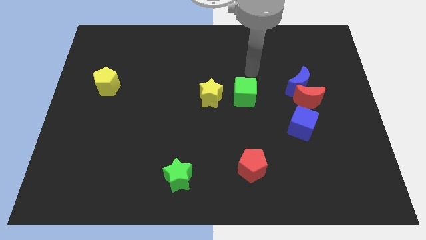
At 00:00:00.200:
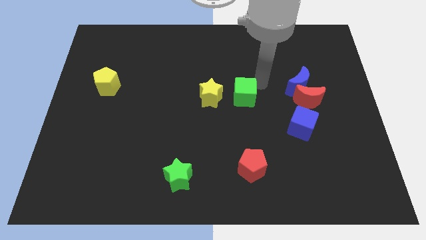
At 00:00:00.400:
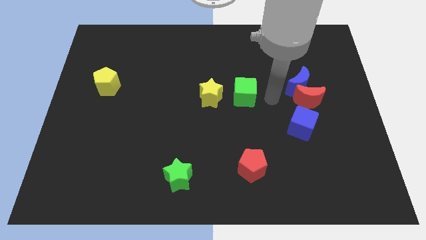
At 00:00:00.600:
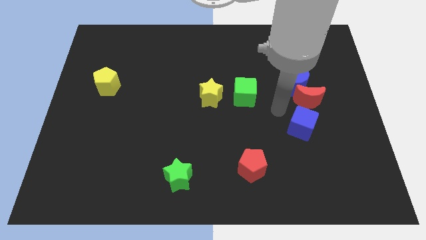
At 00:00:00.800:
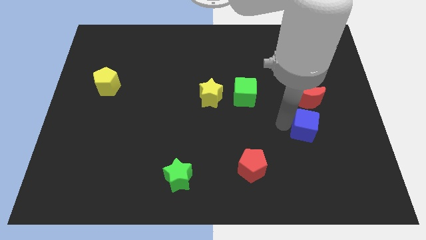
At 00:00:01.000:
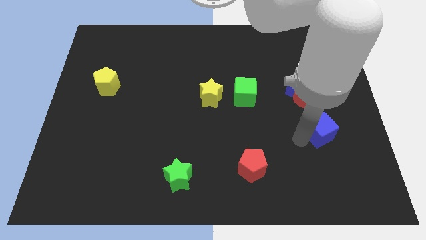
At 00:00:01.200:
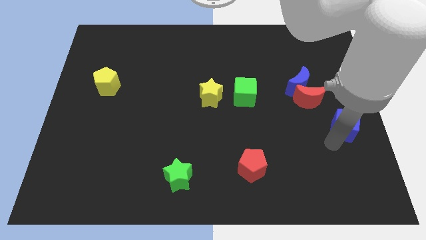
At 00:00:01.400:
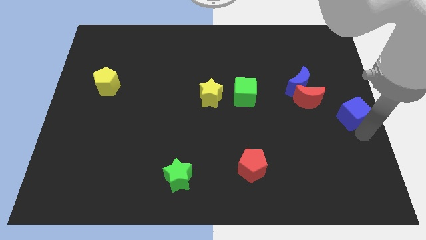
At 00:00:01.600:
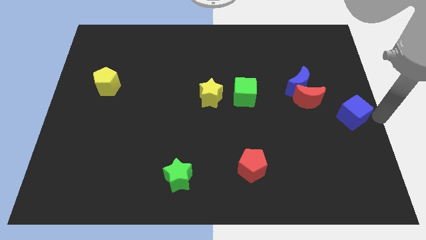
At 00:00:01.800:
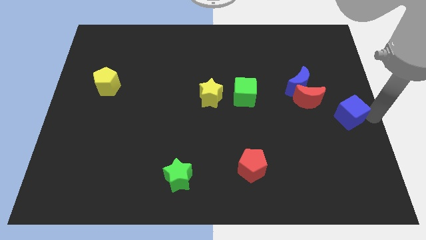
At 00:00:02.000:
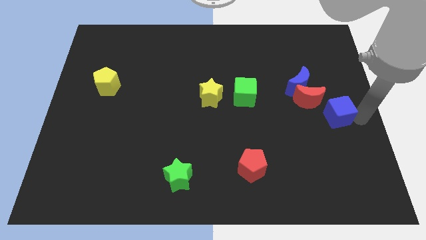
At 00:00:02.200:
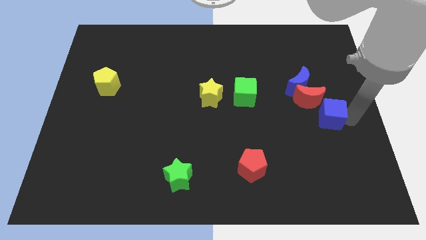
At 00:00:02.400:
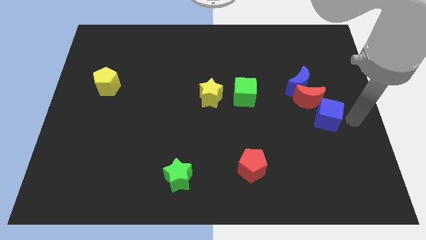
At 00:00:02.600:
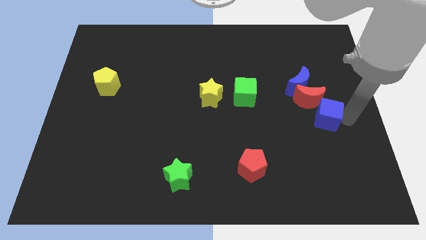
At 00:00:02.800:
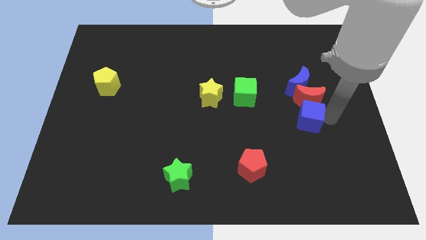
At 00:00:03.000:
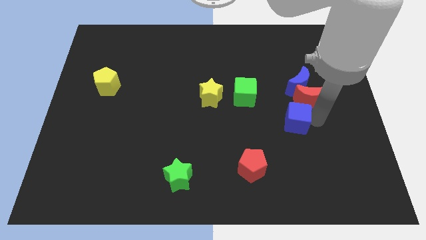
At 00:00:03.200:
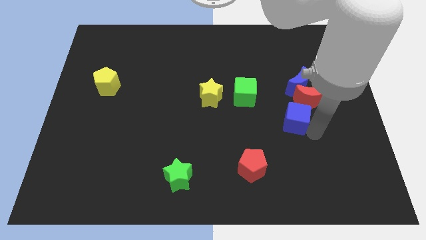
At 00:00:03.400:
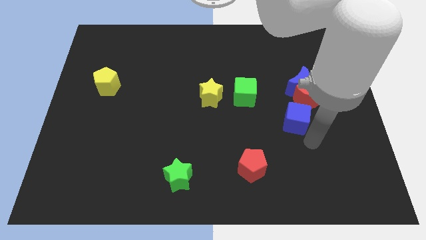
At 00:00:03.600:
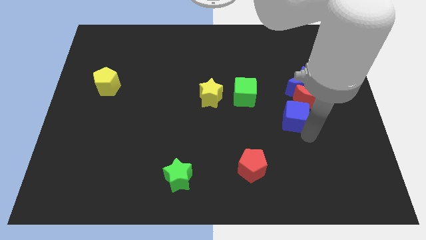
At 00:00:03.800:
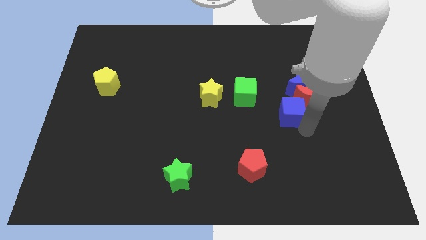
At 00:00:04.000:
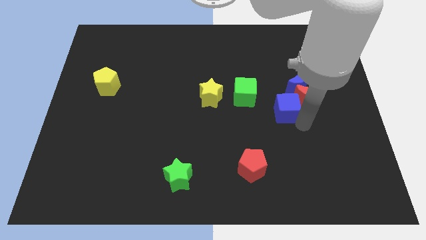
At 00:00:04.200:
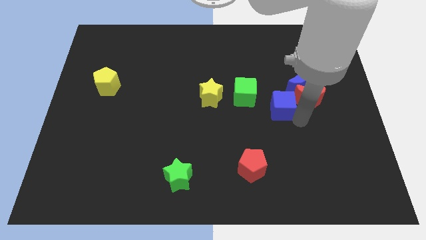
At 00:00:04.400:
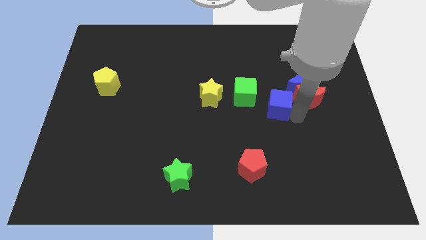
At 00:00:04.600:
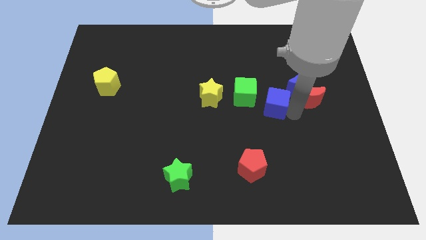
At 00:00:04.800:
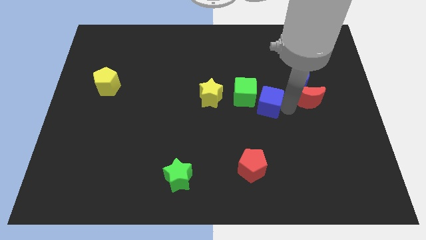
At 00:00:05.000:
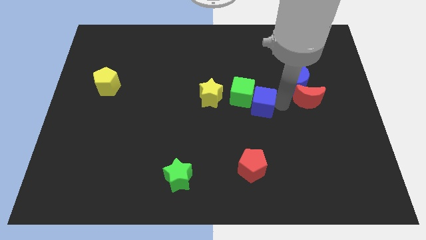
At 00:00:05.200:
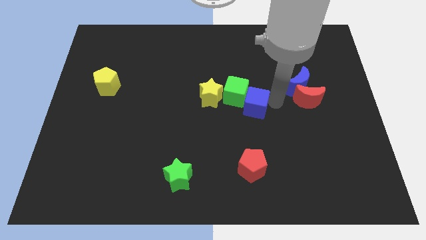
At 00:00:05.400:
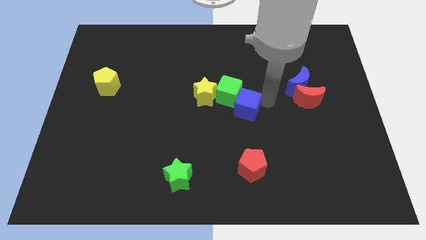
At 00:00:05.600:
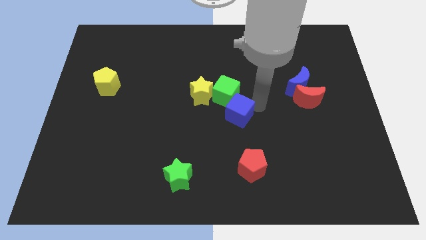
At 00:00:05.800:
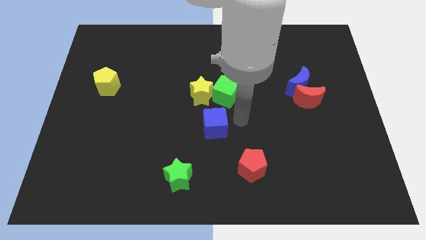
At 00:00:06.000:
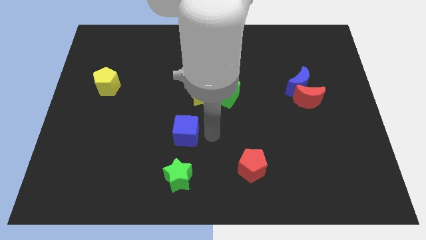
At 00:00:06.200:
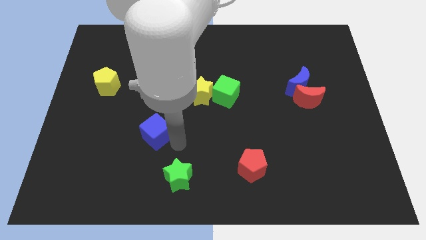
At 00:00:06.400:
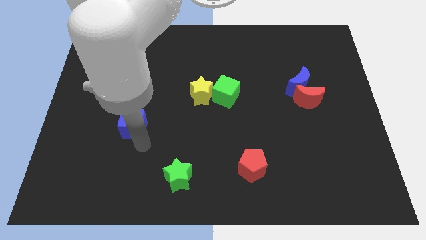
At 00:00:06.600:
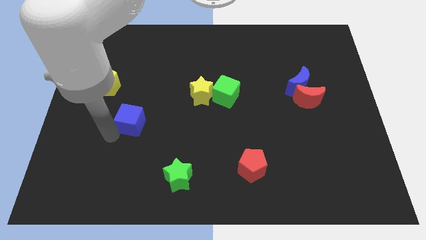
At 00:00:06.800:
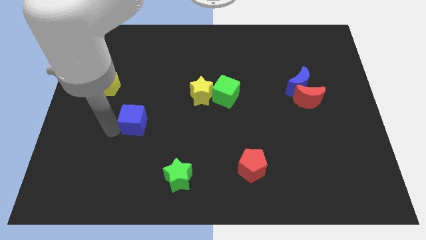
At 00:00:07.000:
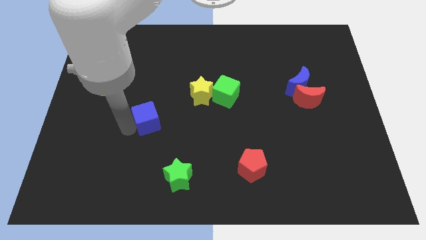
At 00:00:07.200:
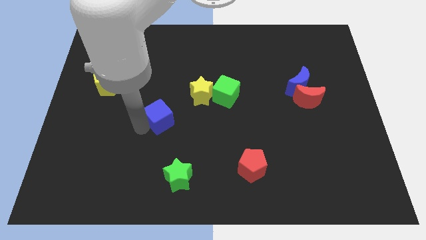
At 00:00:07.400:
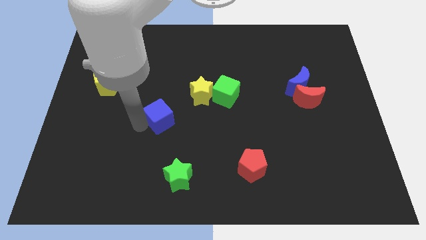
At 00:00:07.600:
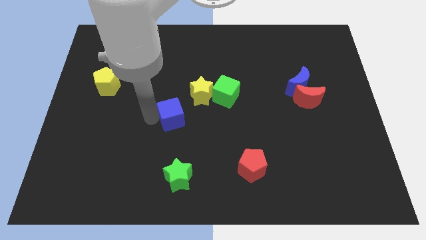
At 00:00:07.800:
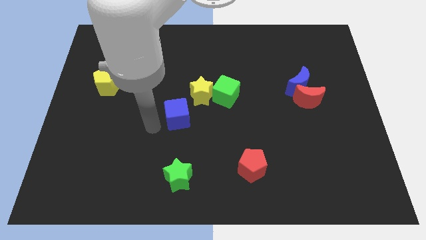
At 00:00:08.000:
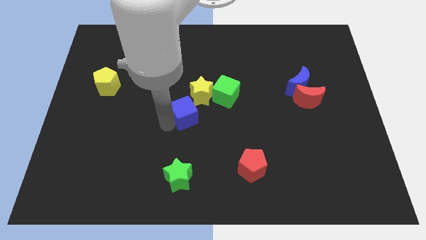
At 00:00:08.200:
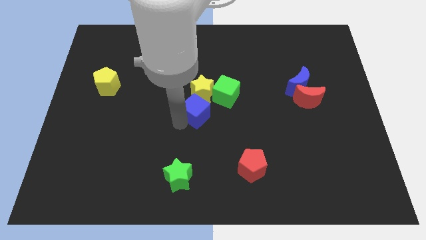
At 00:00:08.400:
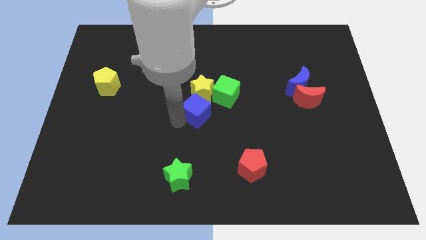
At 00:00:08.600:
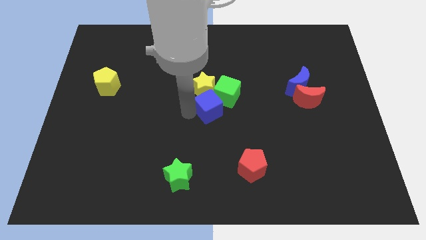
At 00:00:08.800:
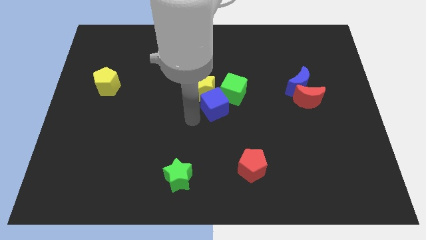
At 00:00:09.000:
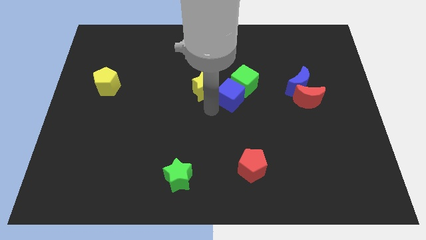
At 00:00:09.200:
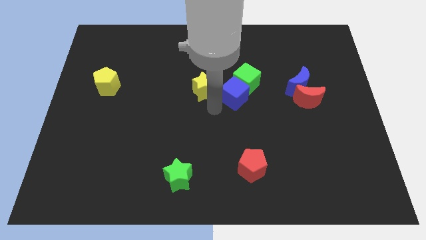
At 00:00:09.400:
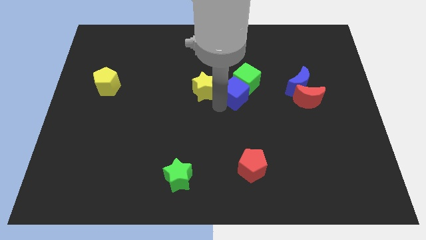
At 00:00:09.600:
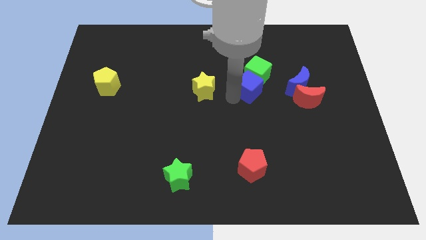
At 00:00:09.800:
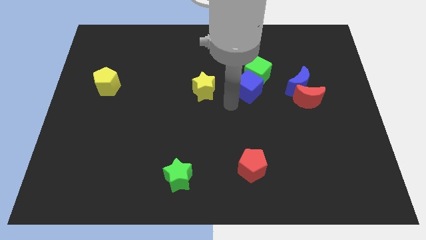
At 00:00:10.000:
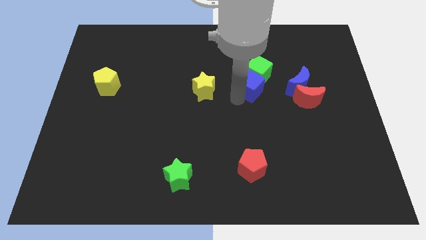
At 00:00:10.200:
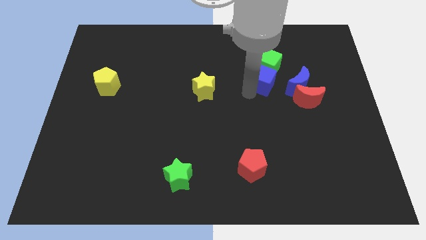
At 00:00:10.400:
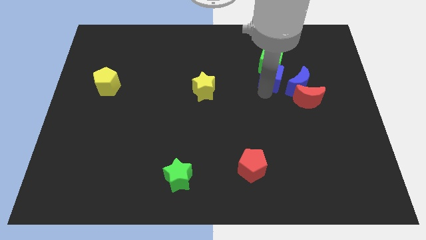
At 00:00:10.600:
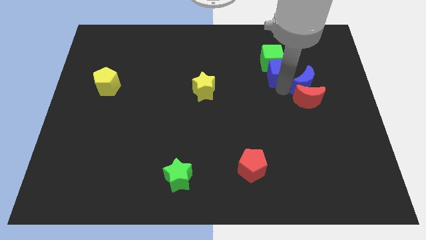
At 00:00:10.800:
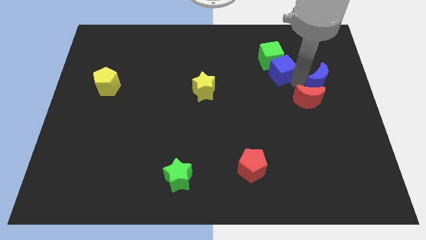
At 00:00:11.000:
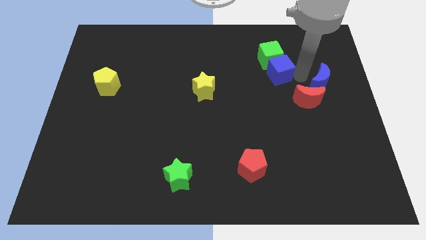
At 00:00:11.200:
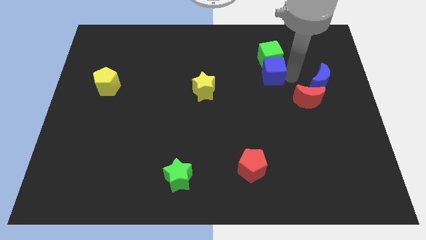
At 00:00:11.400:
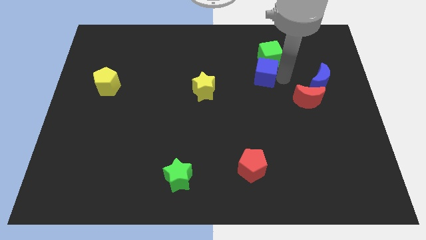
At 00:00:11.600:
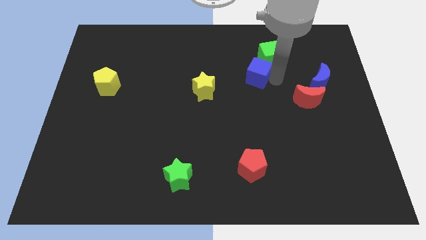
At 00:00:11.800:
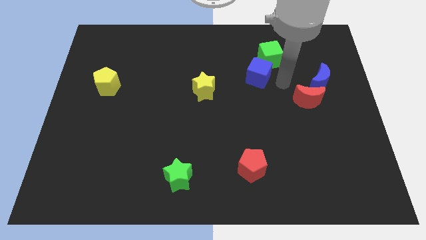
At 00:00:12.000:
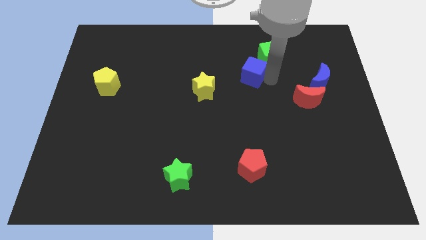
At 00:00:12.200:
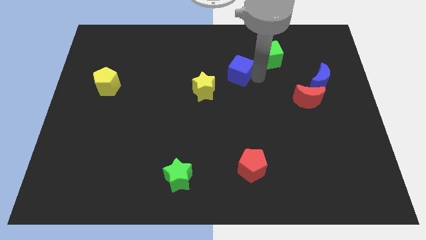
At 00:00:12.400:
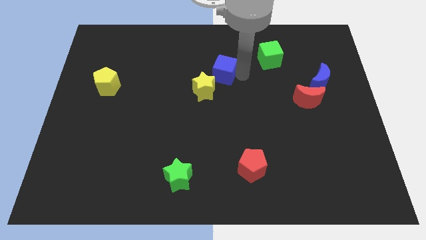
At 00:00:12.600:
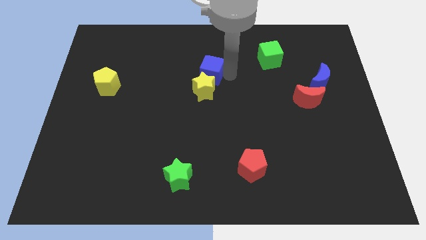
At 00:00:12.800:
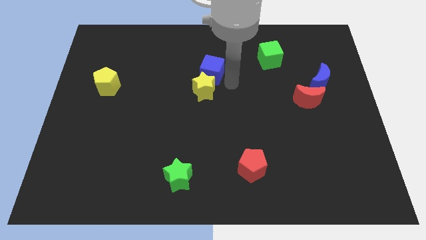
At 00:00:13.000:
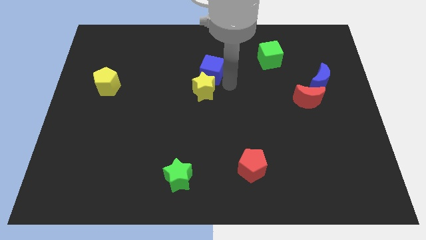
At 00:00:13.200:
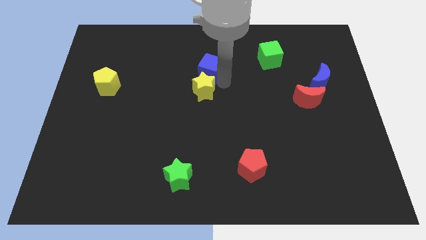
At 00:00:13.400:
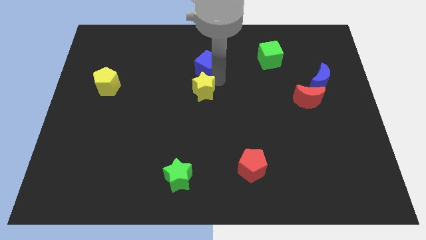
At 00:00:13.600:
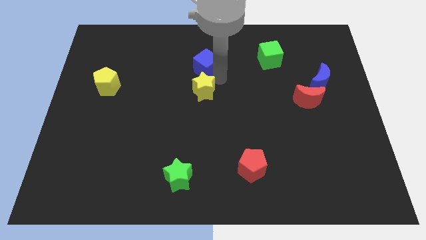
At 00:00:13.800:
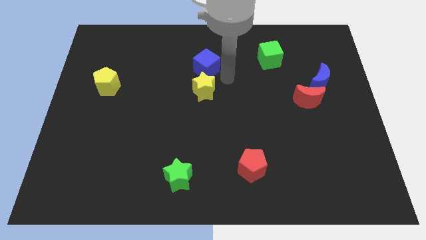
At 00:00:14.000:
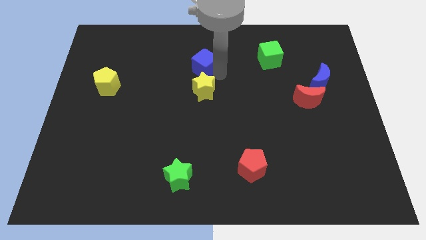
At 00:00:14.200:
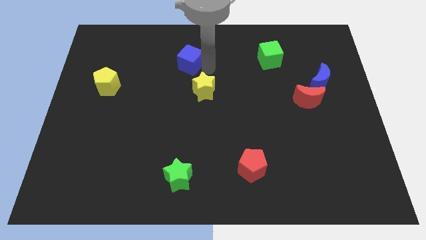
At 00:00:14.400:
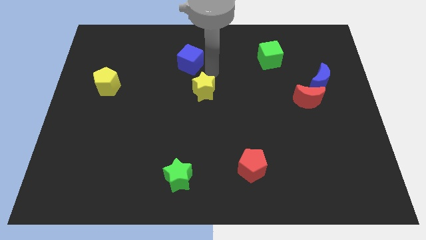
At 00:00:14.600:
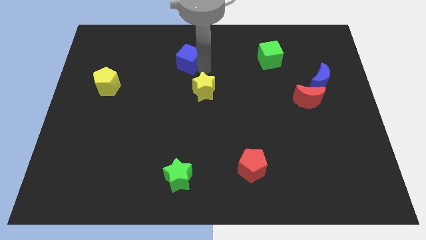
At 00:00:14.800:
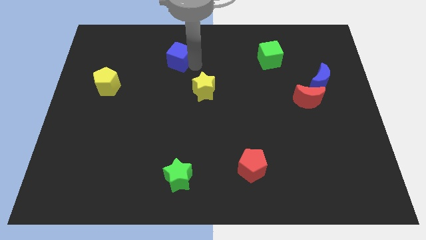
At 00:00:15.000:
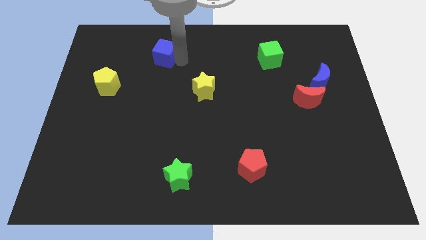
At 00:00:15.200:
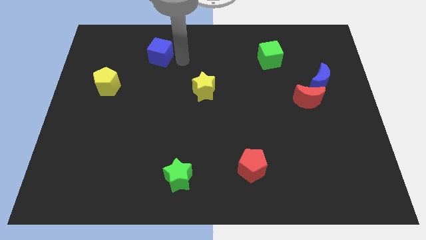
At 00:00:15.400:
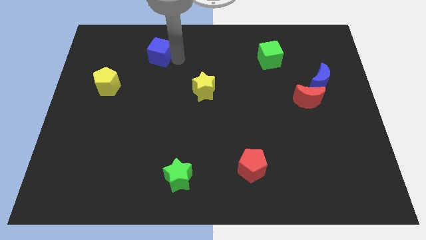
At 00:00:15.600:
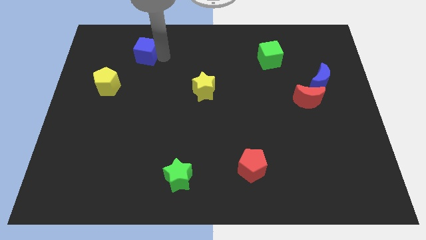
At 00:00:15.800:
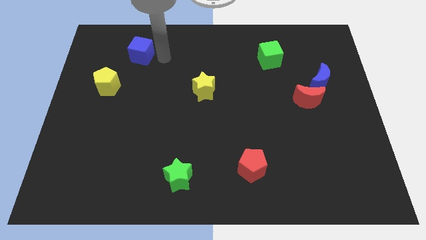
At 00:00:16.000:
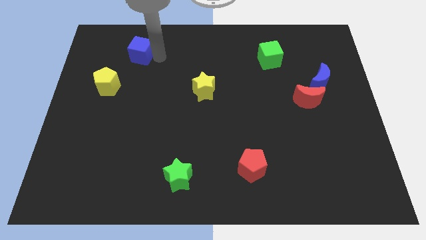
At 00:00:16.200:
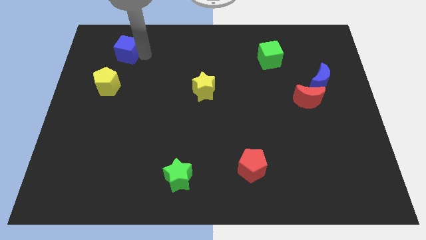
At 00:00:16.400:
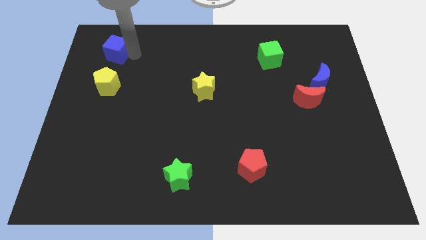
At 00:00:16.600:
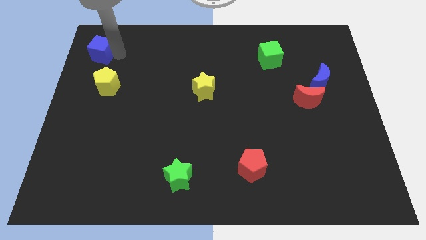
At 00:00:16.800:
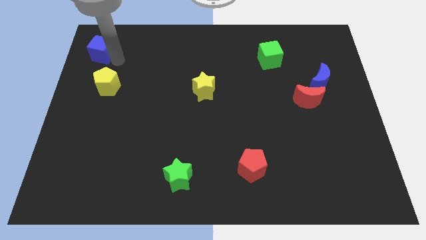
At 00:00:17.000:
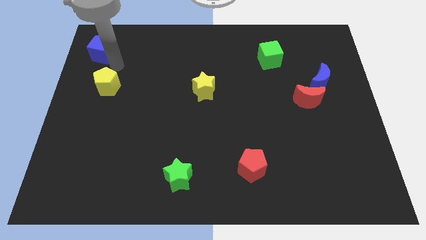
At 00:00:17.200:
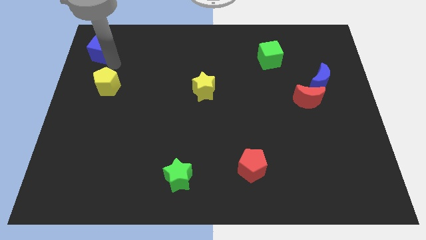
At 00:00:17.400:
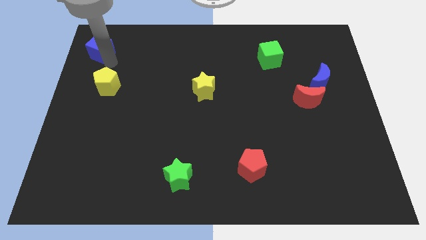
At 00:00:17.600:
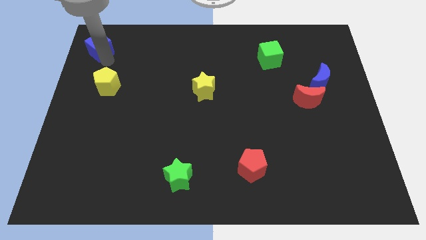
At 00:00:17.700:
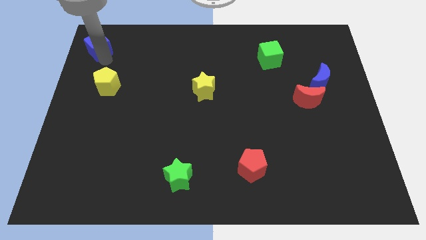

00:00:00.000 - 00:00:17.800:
put the blue cube to the top left of the board
